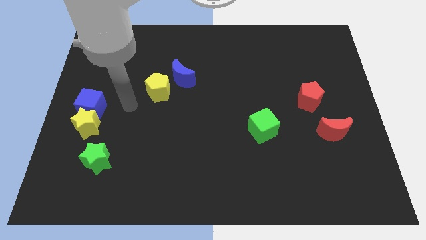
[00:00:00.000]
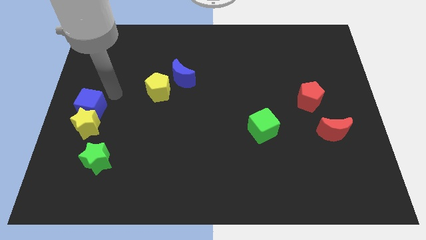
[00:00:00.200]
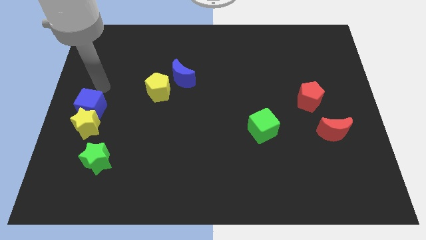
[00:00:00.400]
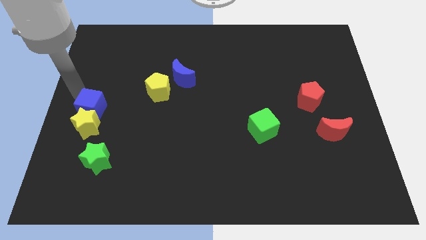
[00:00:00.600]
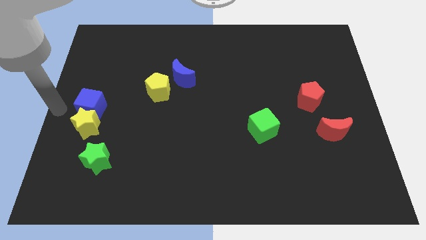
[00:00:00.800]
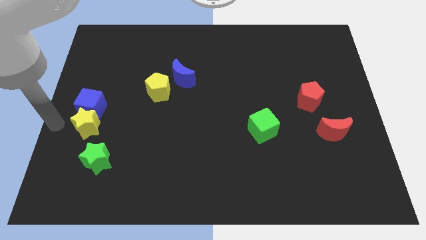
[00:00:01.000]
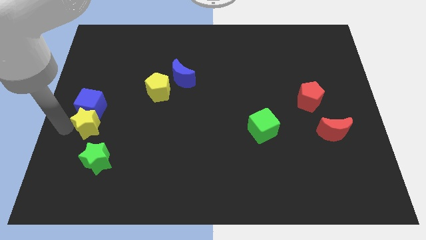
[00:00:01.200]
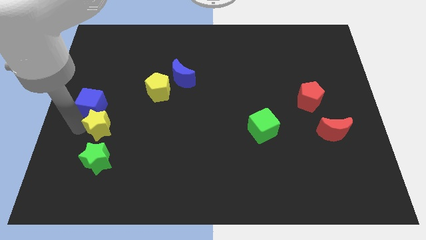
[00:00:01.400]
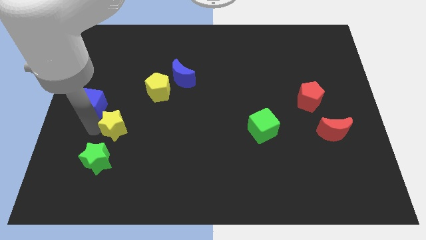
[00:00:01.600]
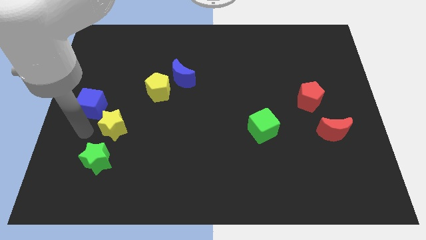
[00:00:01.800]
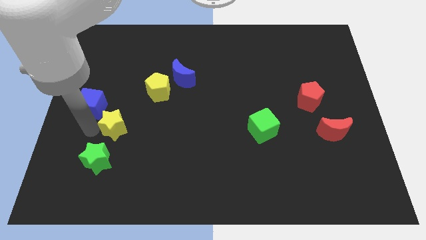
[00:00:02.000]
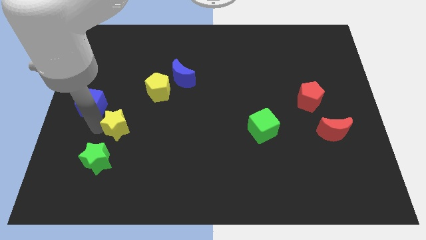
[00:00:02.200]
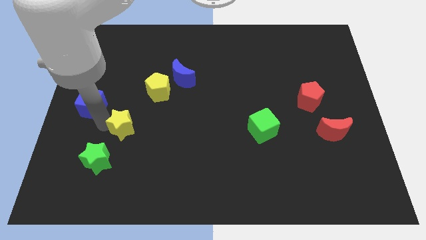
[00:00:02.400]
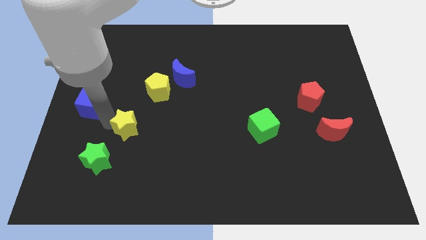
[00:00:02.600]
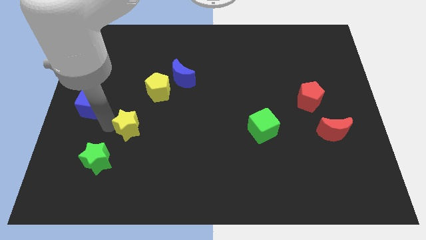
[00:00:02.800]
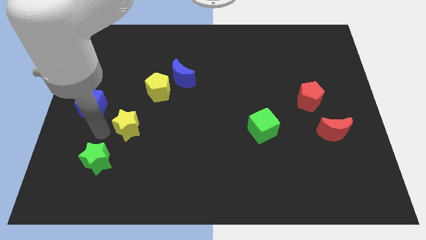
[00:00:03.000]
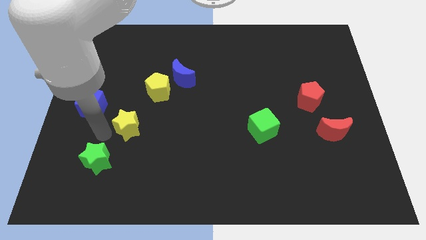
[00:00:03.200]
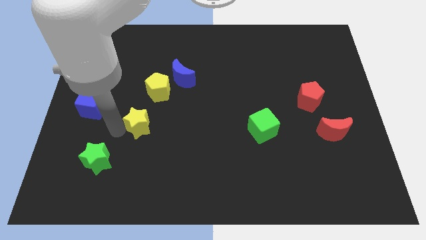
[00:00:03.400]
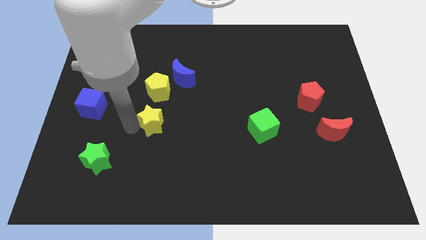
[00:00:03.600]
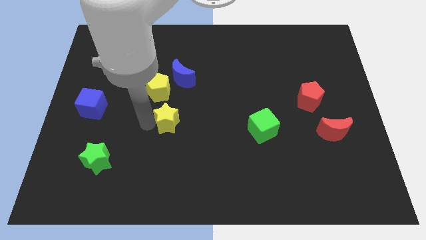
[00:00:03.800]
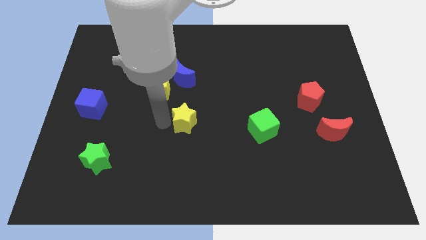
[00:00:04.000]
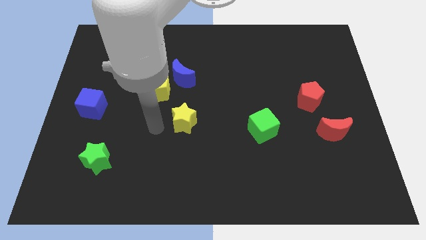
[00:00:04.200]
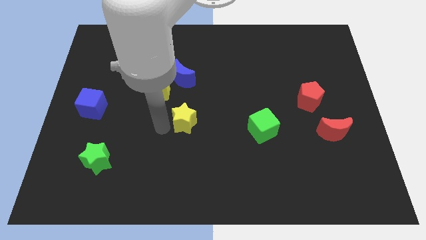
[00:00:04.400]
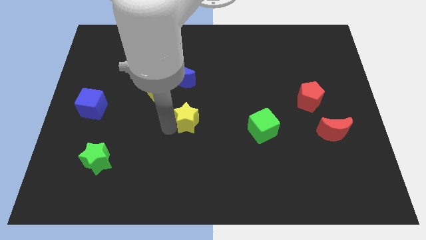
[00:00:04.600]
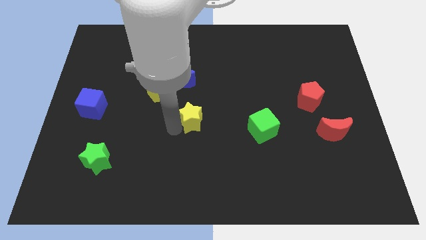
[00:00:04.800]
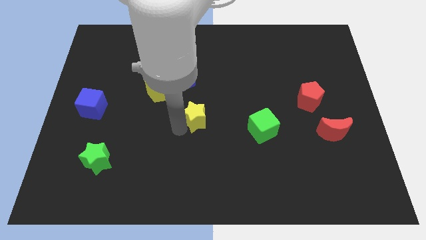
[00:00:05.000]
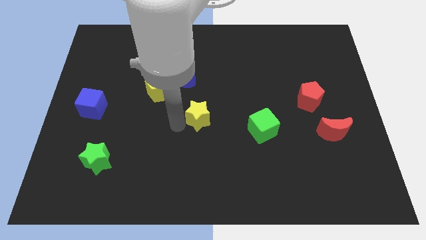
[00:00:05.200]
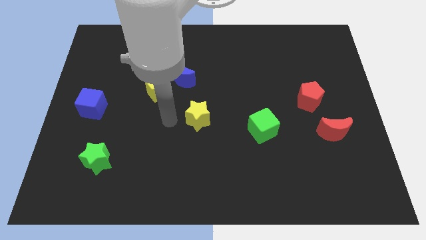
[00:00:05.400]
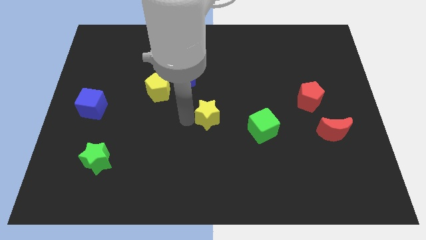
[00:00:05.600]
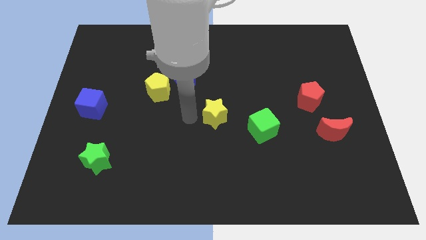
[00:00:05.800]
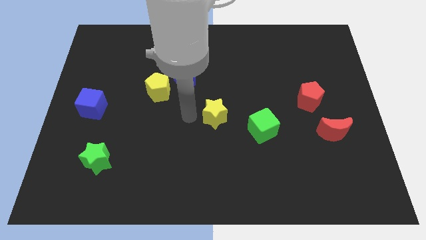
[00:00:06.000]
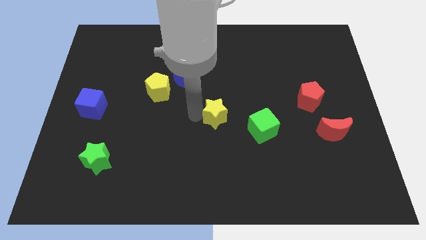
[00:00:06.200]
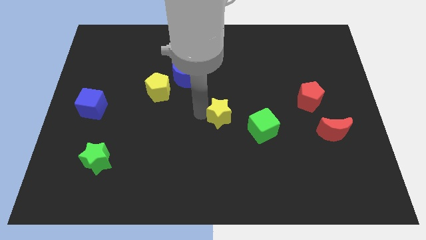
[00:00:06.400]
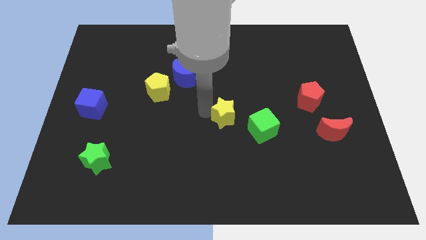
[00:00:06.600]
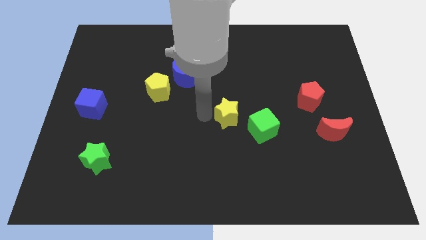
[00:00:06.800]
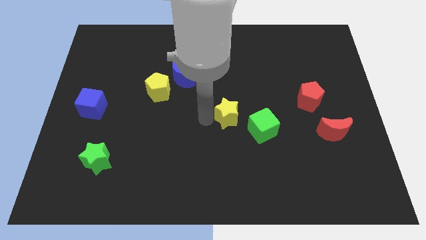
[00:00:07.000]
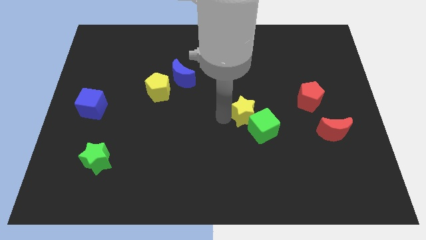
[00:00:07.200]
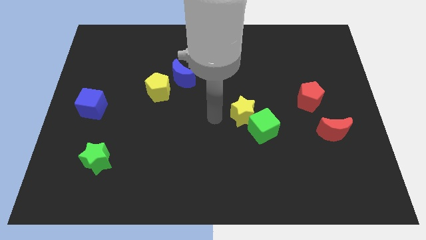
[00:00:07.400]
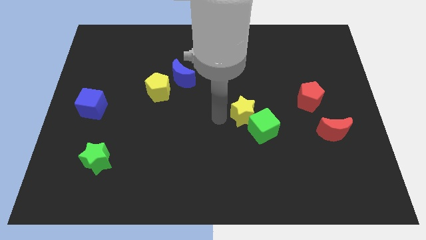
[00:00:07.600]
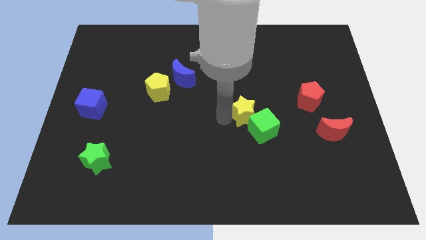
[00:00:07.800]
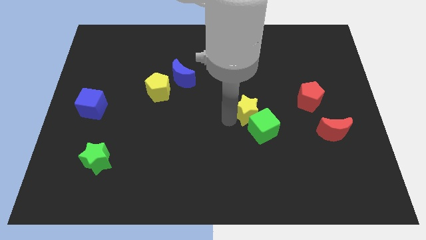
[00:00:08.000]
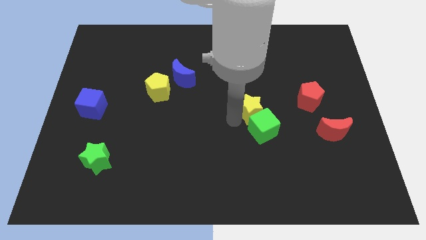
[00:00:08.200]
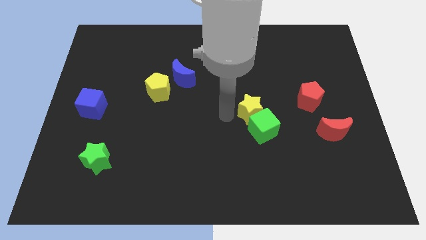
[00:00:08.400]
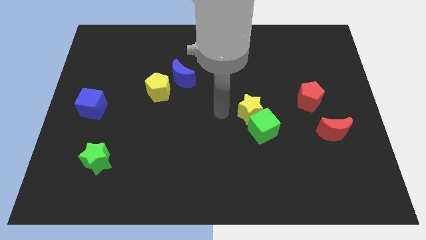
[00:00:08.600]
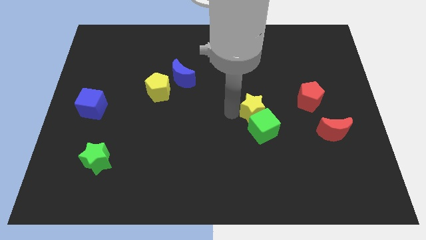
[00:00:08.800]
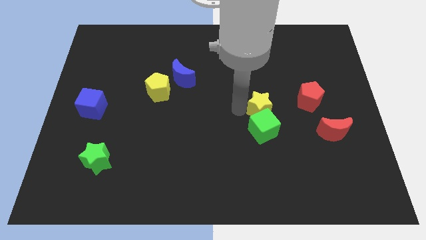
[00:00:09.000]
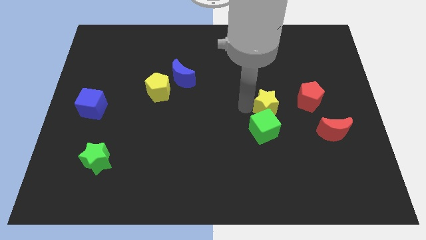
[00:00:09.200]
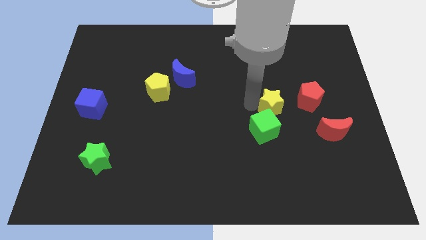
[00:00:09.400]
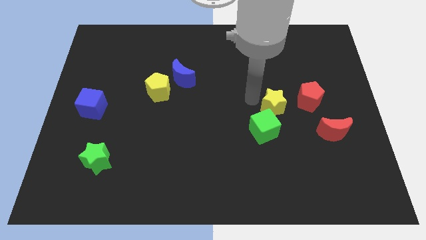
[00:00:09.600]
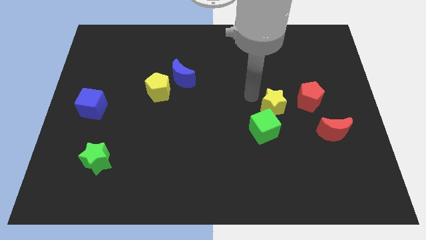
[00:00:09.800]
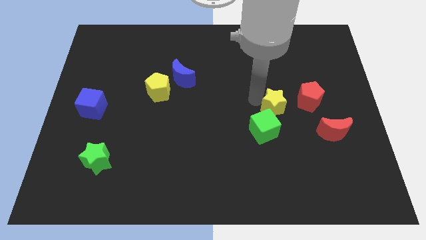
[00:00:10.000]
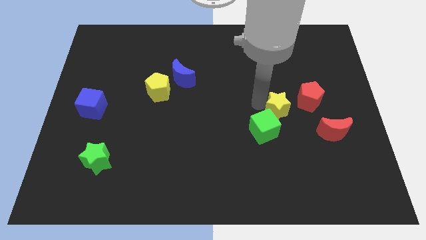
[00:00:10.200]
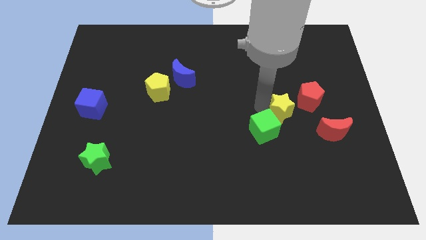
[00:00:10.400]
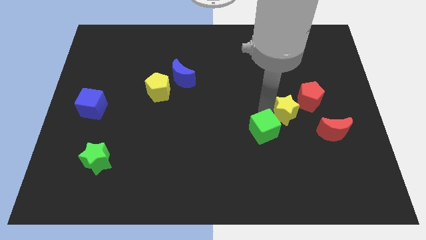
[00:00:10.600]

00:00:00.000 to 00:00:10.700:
push the yellow star to the top left side of the red moon
